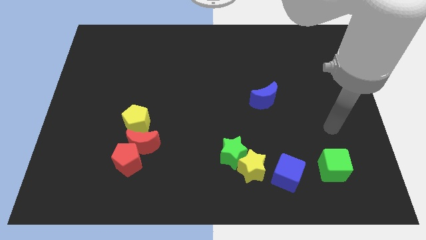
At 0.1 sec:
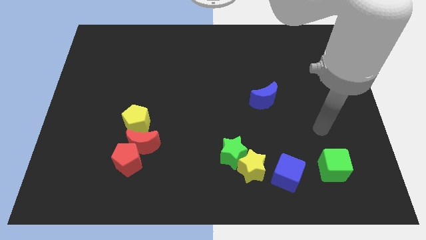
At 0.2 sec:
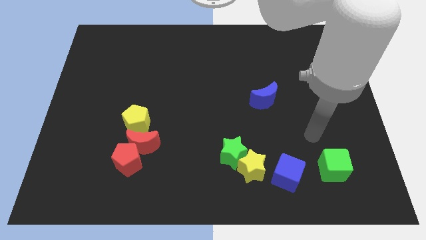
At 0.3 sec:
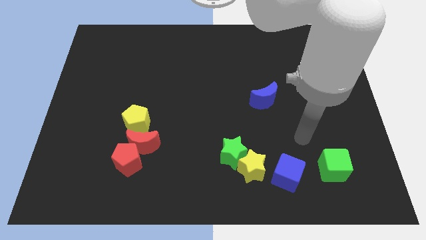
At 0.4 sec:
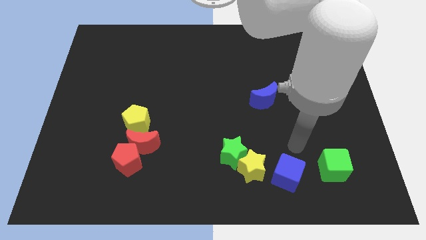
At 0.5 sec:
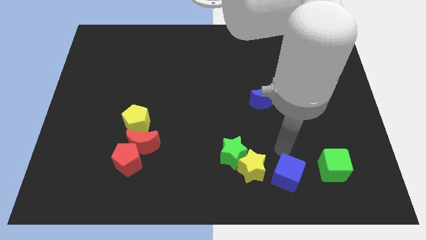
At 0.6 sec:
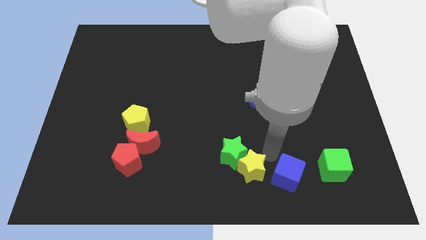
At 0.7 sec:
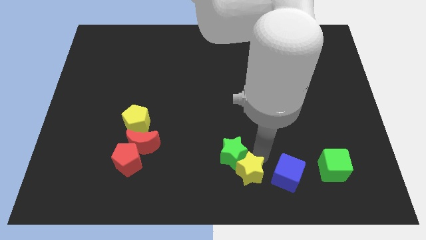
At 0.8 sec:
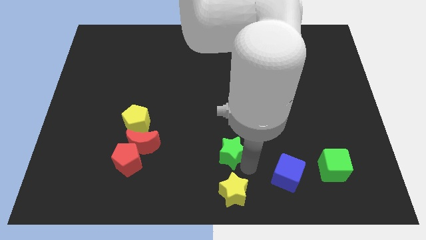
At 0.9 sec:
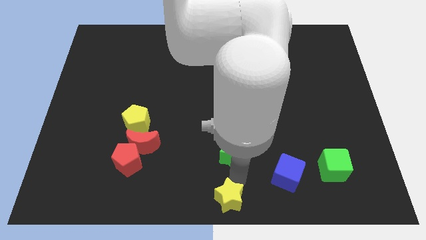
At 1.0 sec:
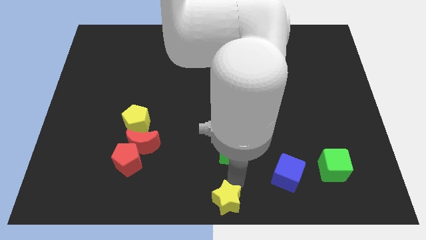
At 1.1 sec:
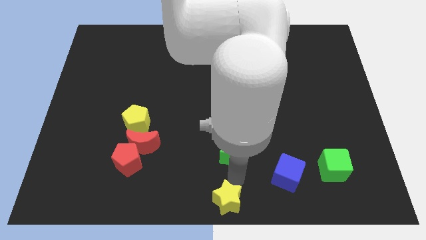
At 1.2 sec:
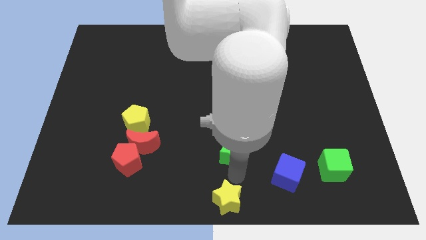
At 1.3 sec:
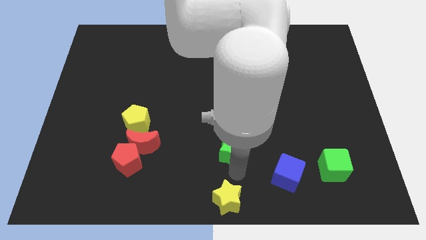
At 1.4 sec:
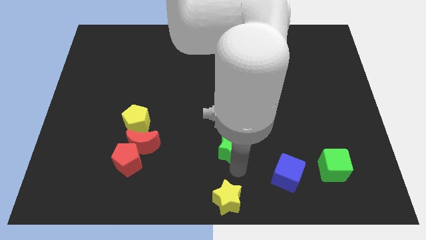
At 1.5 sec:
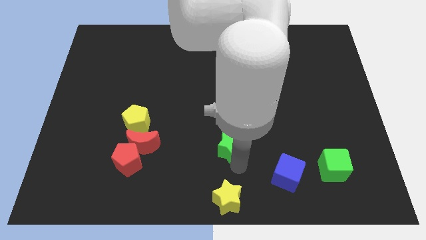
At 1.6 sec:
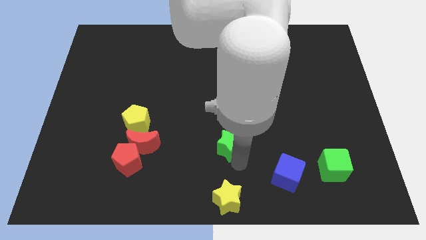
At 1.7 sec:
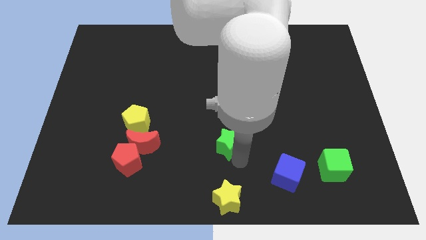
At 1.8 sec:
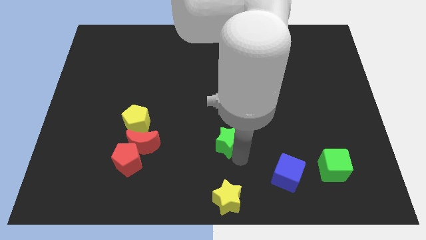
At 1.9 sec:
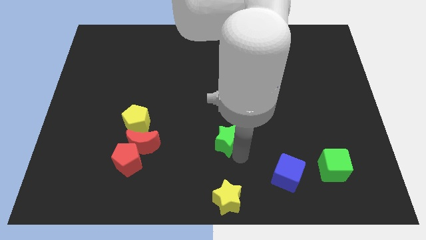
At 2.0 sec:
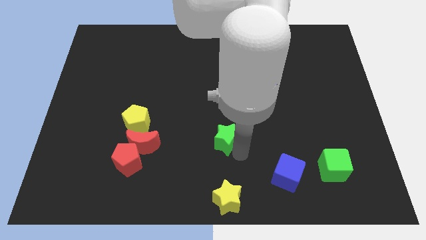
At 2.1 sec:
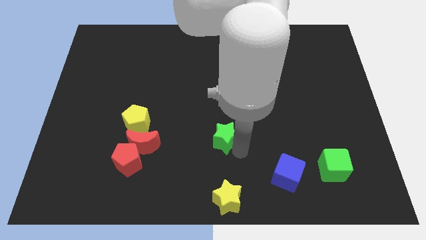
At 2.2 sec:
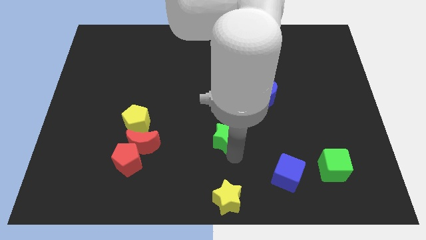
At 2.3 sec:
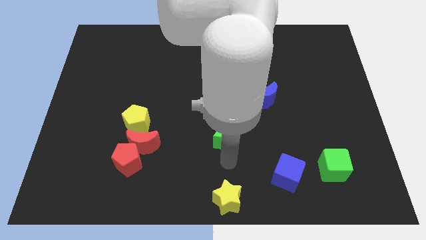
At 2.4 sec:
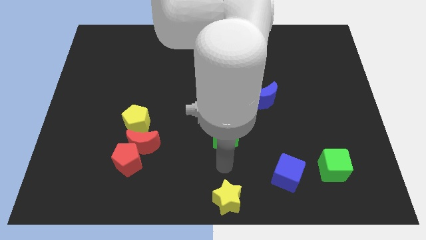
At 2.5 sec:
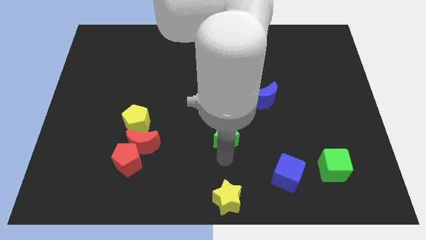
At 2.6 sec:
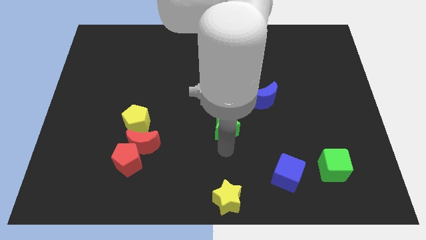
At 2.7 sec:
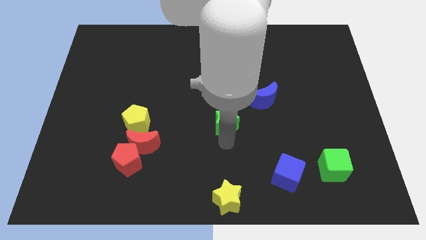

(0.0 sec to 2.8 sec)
slightly push the green star upwards

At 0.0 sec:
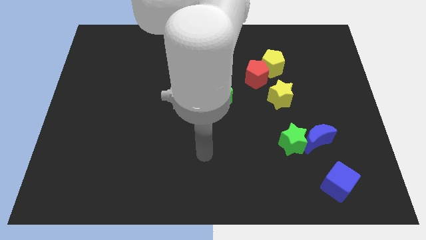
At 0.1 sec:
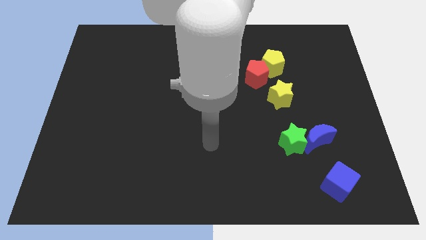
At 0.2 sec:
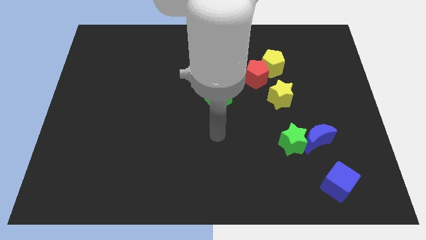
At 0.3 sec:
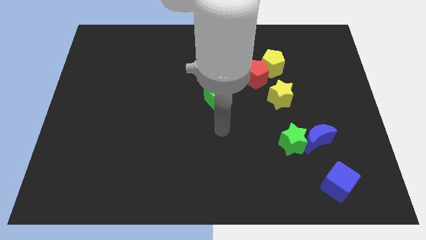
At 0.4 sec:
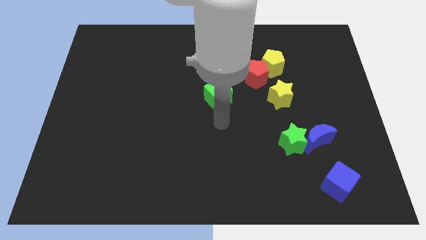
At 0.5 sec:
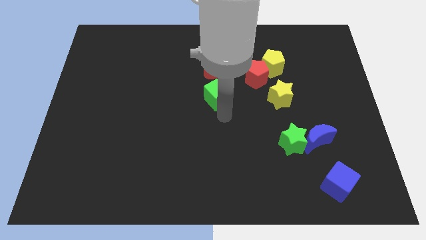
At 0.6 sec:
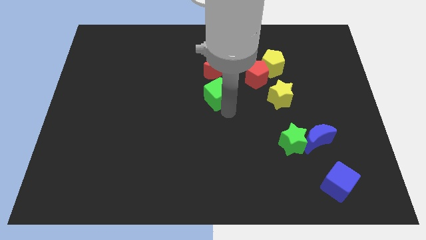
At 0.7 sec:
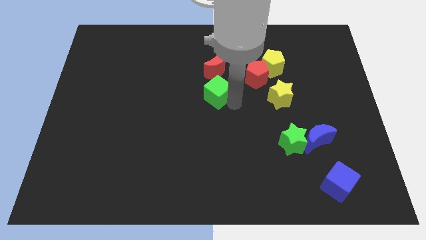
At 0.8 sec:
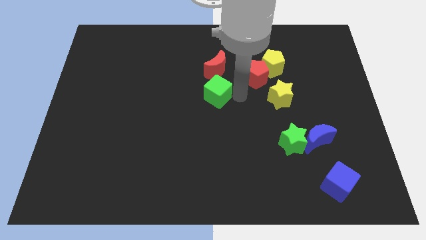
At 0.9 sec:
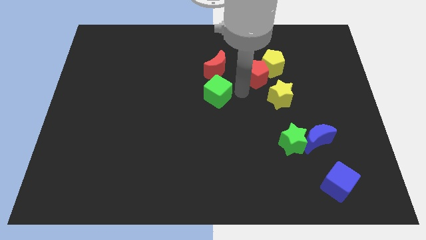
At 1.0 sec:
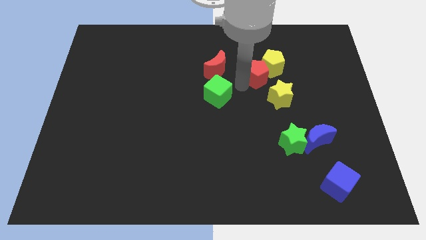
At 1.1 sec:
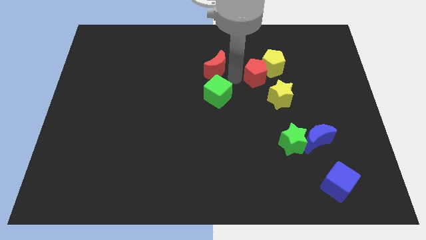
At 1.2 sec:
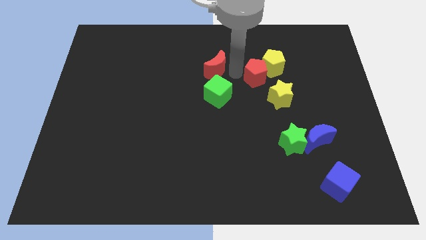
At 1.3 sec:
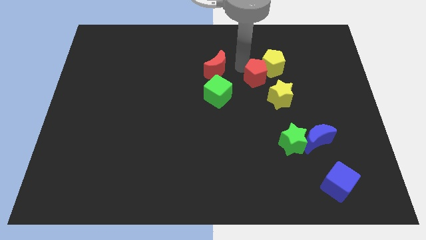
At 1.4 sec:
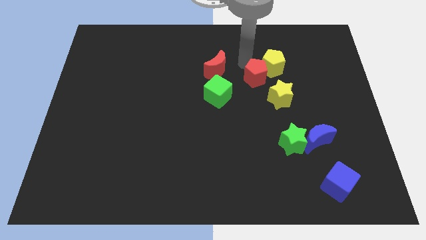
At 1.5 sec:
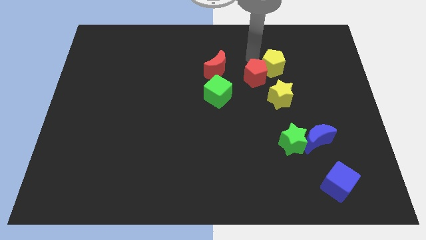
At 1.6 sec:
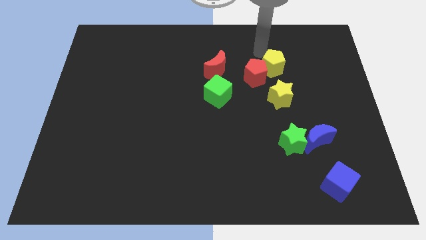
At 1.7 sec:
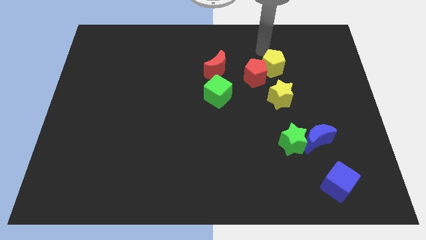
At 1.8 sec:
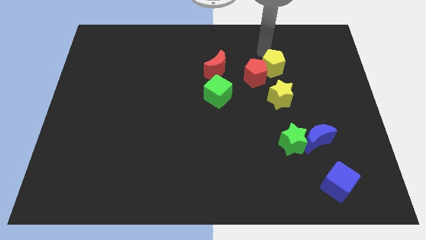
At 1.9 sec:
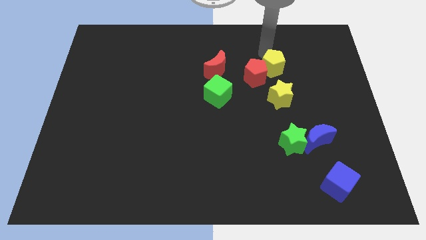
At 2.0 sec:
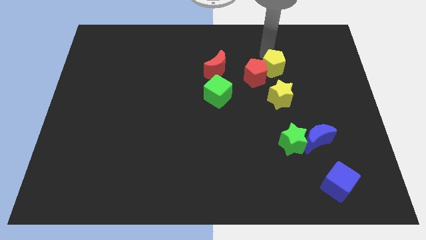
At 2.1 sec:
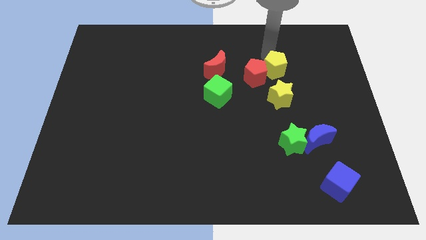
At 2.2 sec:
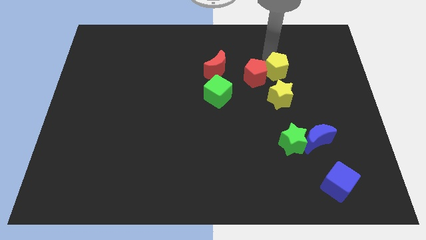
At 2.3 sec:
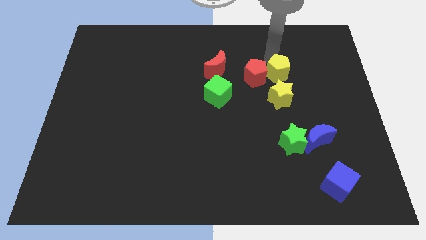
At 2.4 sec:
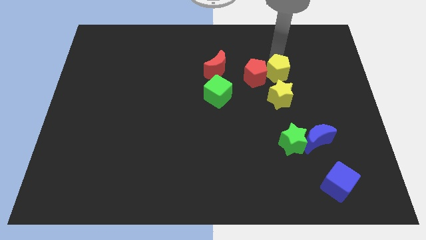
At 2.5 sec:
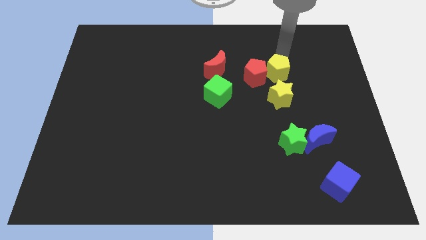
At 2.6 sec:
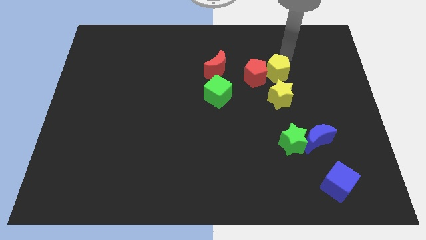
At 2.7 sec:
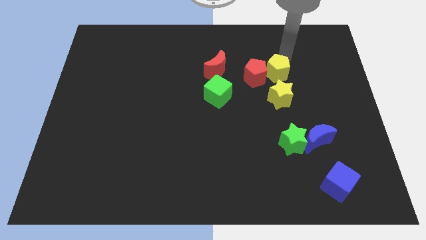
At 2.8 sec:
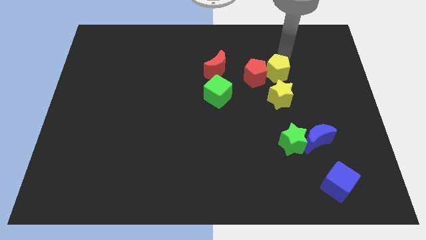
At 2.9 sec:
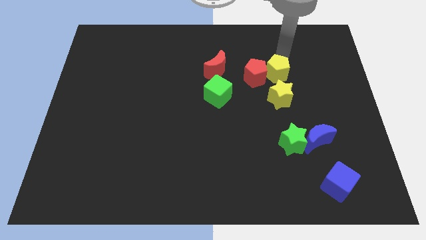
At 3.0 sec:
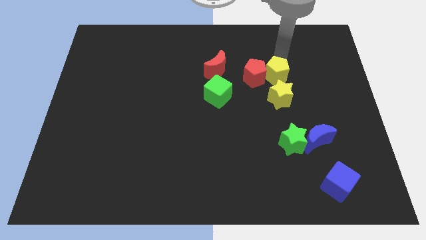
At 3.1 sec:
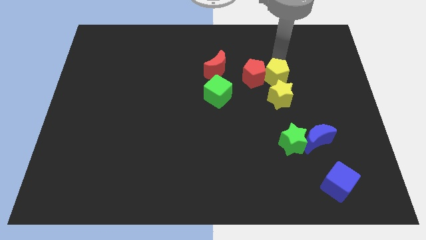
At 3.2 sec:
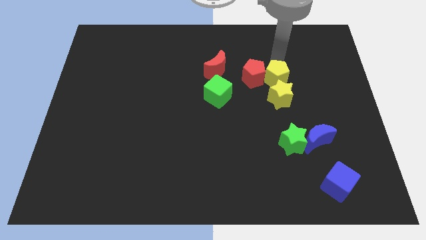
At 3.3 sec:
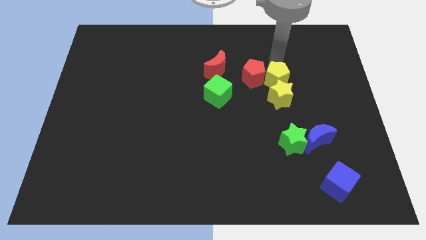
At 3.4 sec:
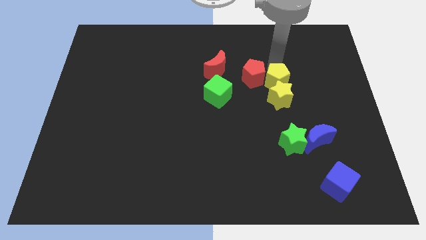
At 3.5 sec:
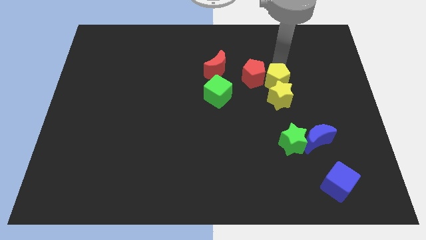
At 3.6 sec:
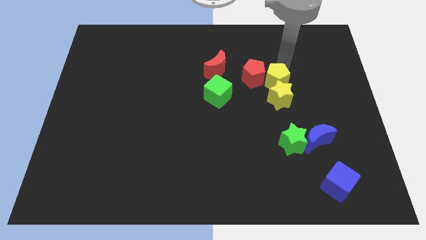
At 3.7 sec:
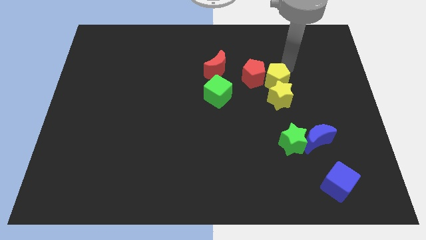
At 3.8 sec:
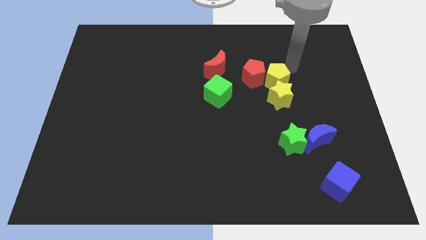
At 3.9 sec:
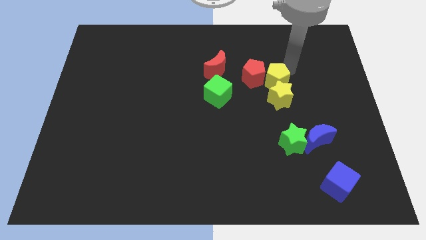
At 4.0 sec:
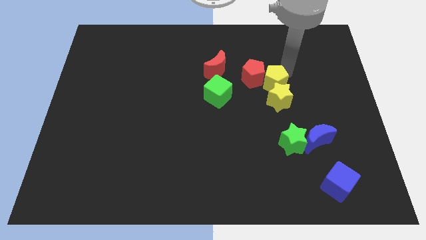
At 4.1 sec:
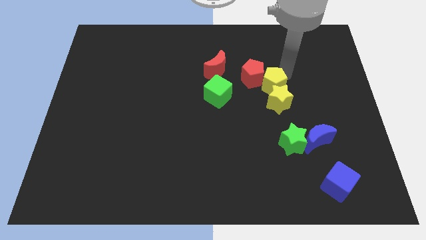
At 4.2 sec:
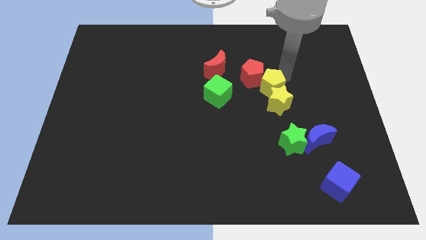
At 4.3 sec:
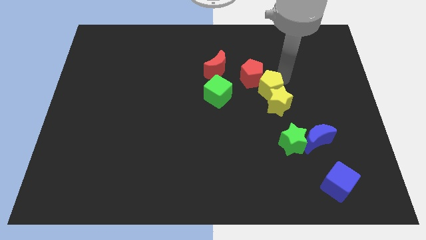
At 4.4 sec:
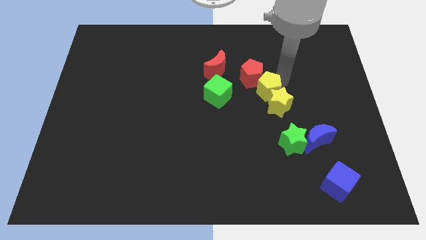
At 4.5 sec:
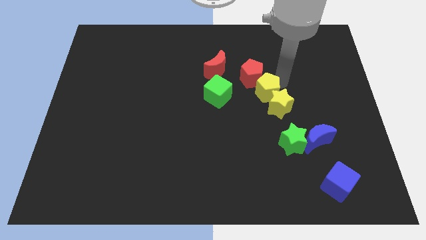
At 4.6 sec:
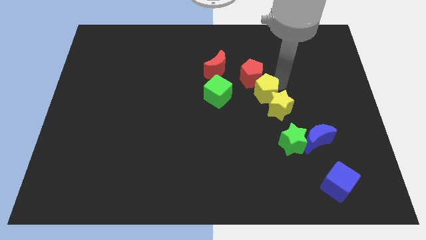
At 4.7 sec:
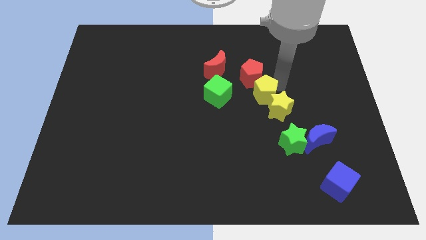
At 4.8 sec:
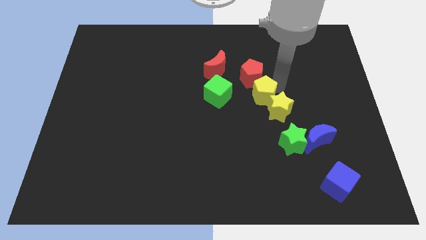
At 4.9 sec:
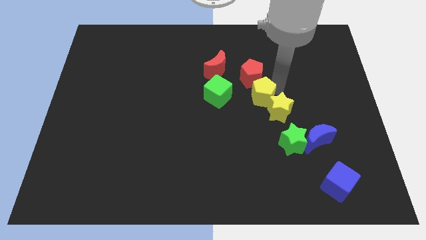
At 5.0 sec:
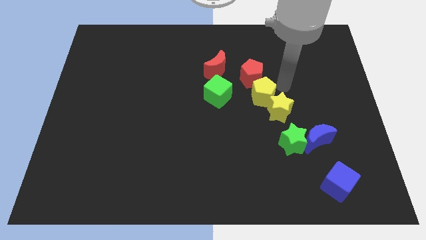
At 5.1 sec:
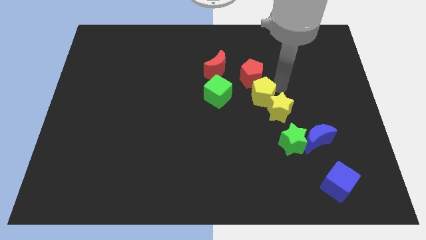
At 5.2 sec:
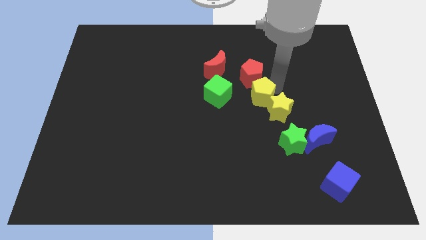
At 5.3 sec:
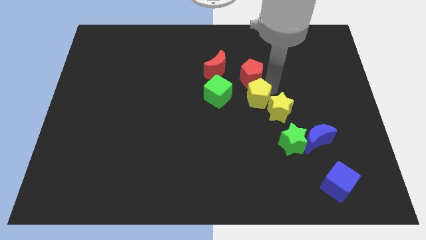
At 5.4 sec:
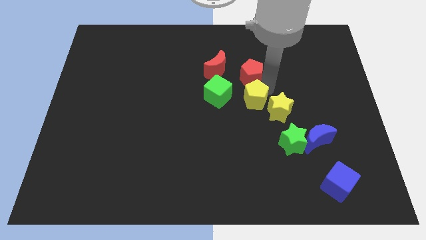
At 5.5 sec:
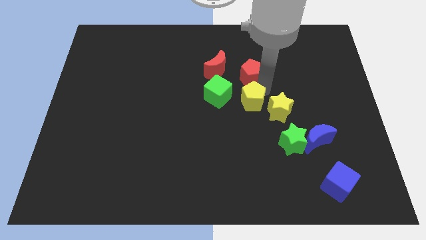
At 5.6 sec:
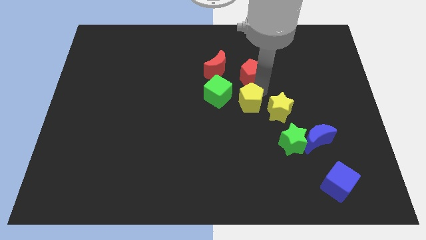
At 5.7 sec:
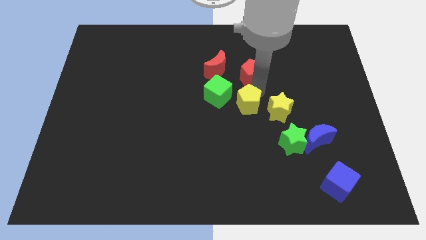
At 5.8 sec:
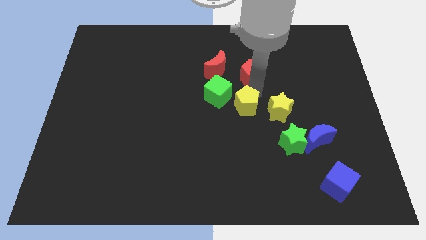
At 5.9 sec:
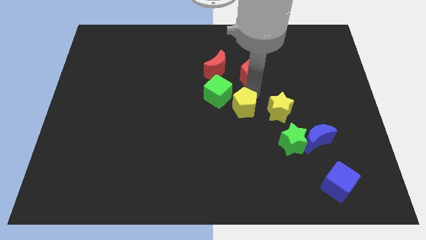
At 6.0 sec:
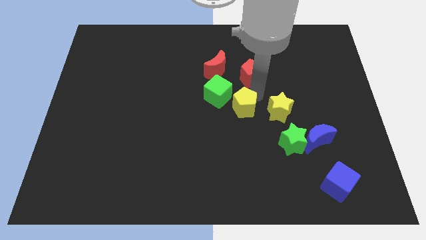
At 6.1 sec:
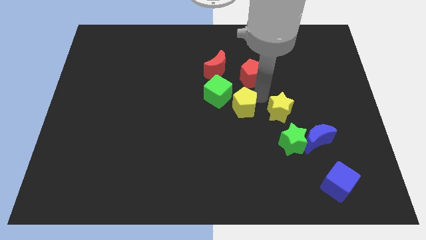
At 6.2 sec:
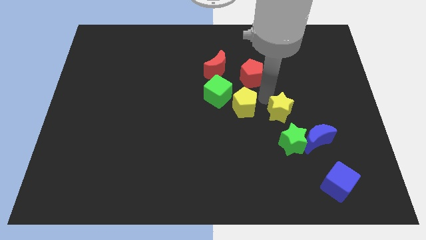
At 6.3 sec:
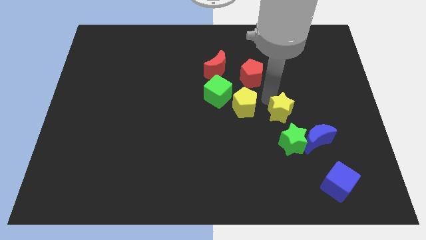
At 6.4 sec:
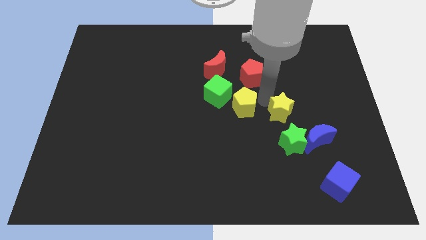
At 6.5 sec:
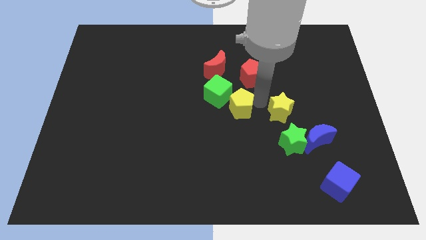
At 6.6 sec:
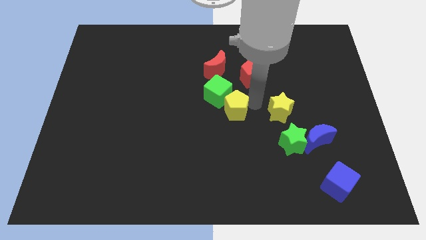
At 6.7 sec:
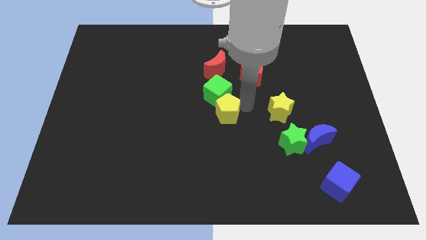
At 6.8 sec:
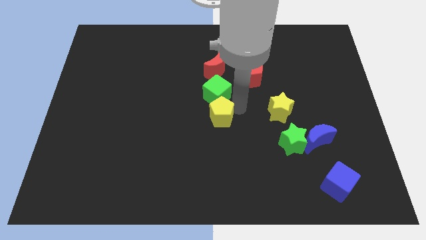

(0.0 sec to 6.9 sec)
push the yellow pentagon downwards and to the left
